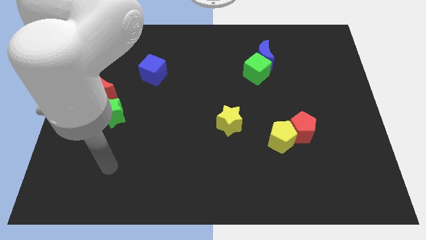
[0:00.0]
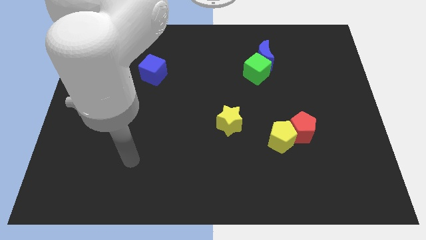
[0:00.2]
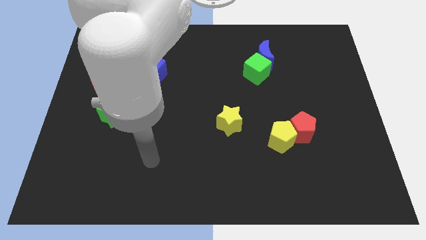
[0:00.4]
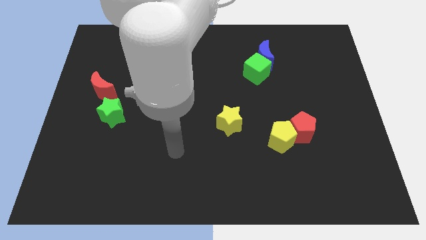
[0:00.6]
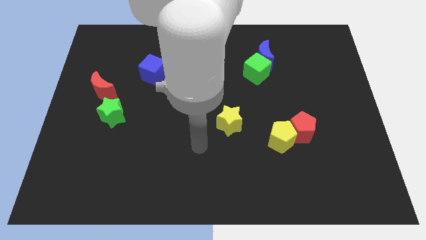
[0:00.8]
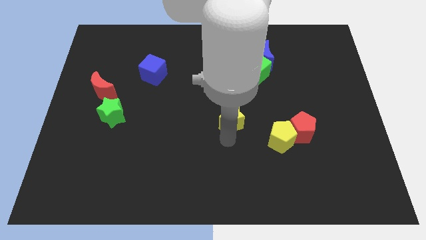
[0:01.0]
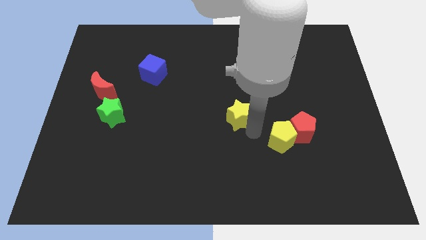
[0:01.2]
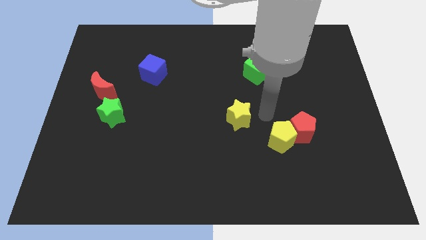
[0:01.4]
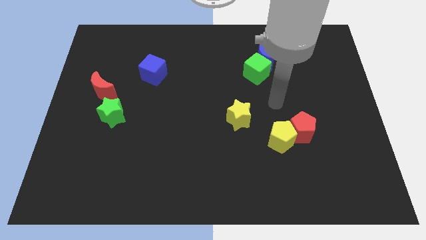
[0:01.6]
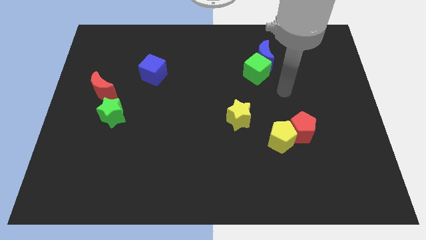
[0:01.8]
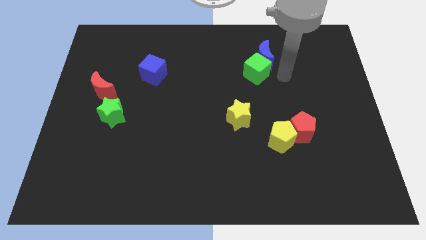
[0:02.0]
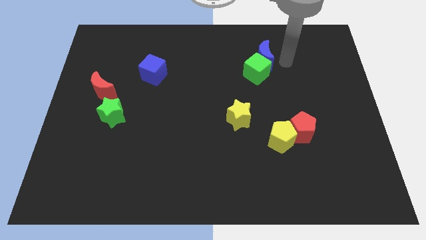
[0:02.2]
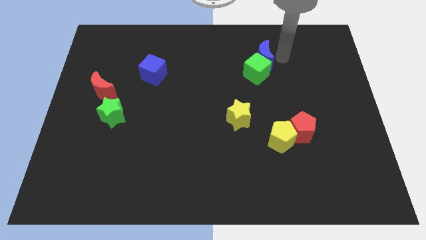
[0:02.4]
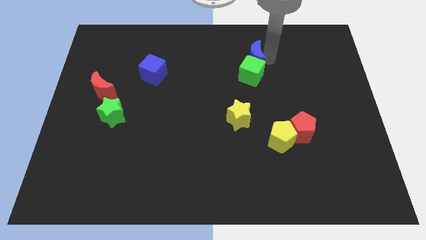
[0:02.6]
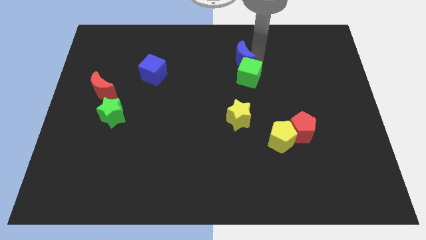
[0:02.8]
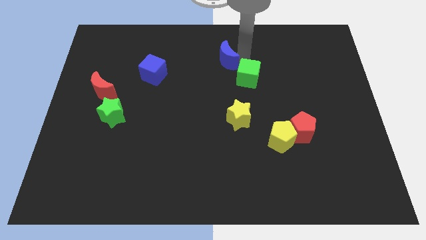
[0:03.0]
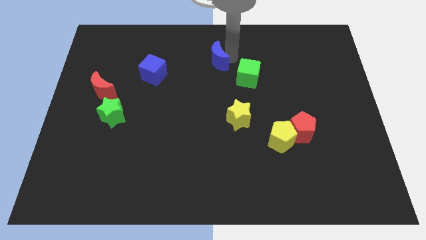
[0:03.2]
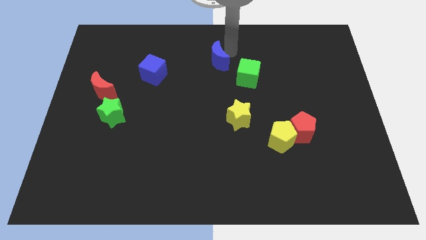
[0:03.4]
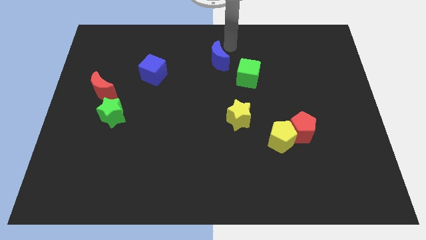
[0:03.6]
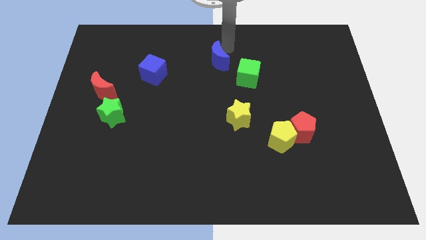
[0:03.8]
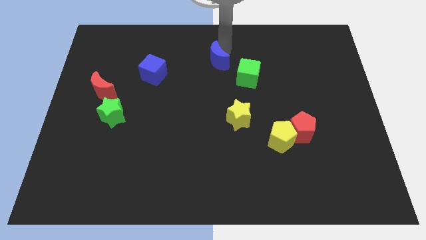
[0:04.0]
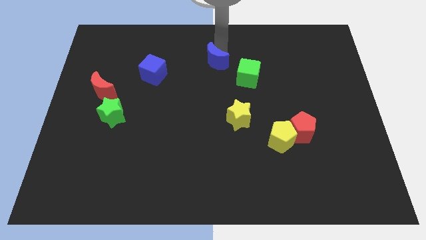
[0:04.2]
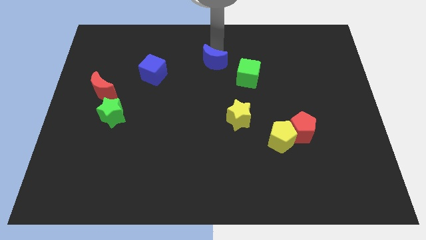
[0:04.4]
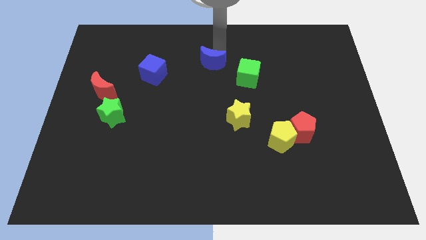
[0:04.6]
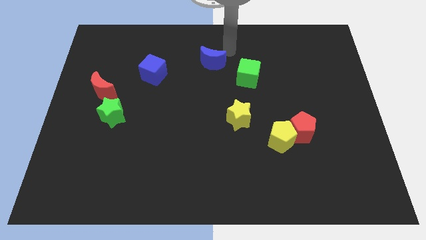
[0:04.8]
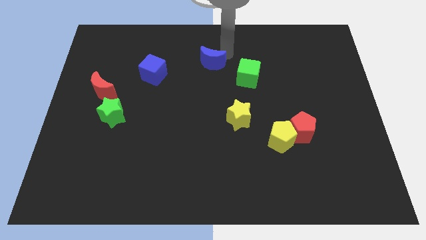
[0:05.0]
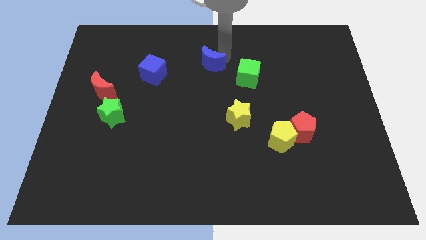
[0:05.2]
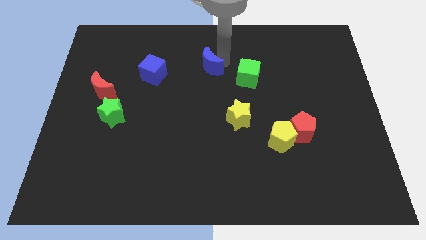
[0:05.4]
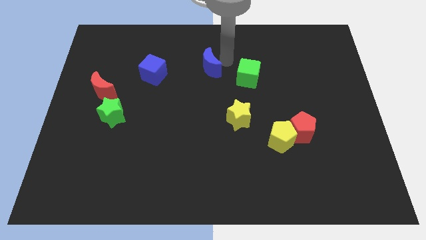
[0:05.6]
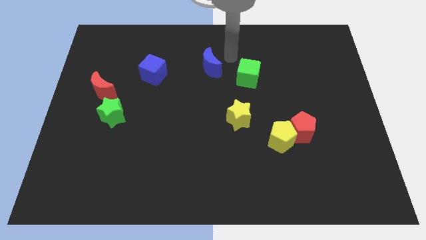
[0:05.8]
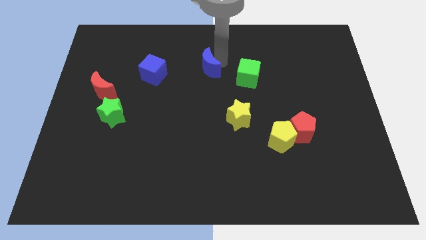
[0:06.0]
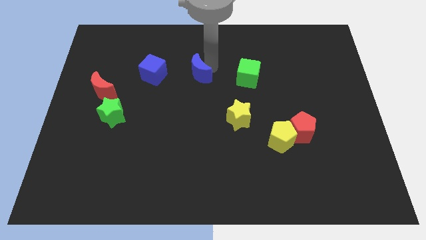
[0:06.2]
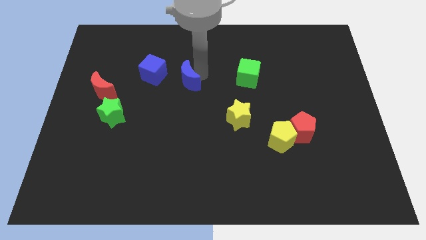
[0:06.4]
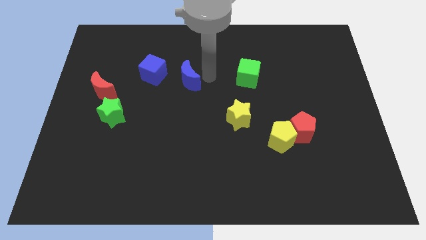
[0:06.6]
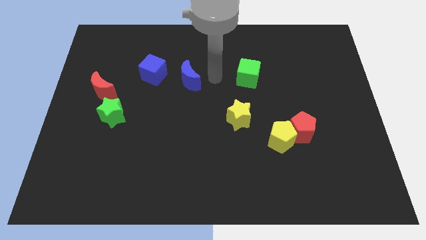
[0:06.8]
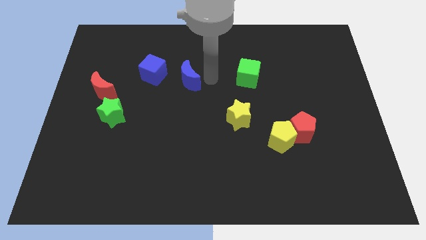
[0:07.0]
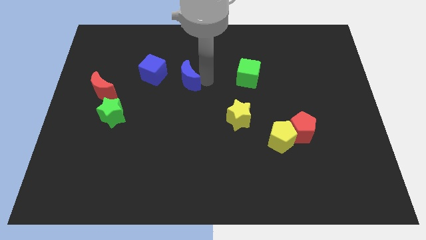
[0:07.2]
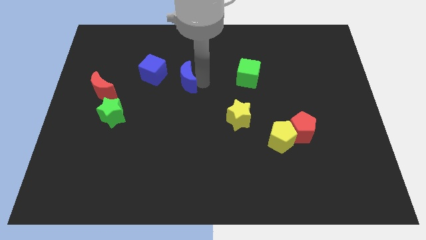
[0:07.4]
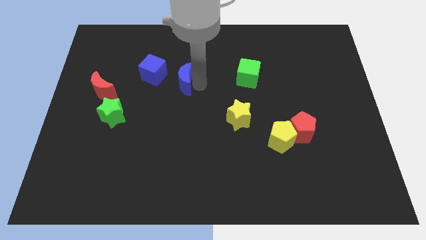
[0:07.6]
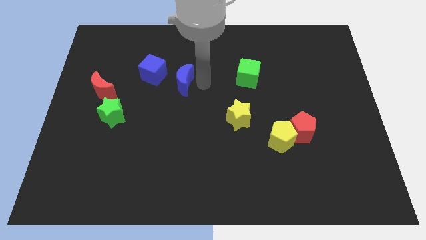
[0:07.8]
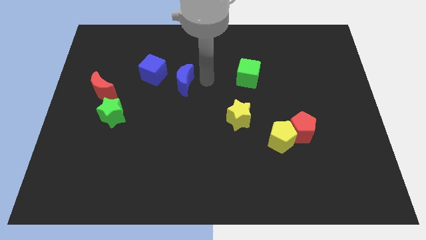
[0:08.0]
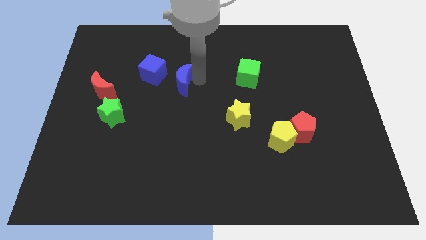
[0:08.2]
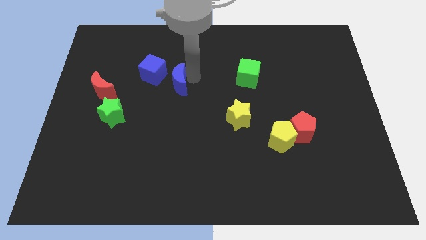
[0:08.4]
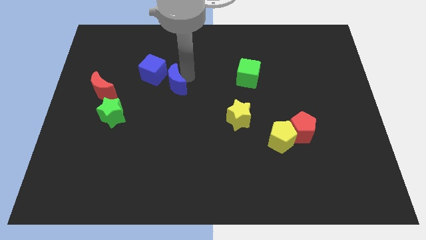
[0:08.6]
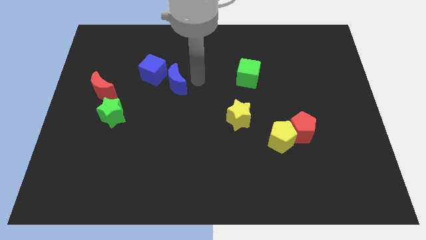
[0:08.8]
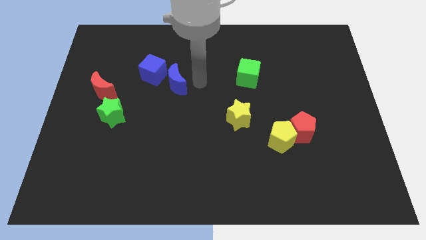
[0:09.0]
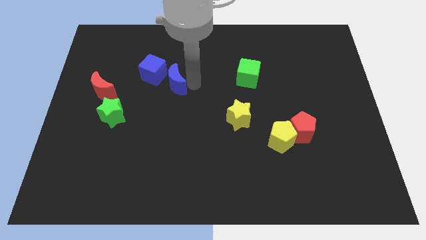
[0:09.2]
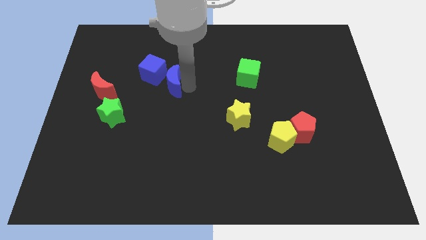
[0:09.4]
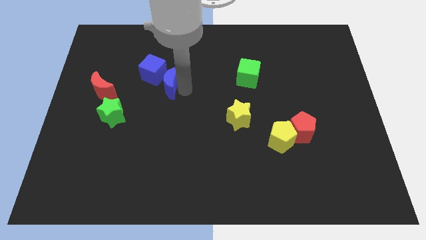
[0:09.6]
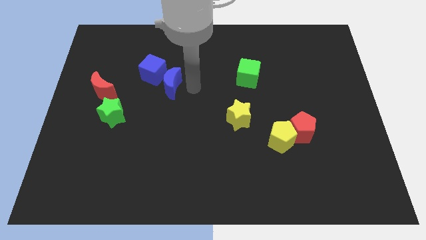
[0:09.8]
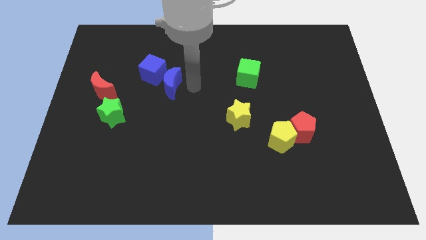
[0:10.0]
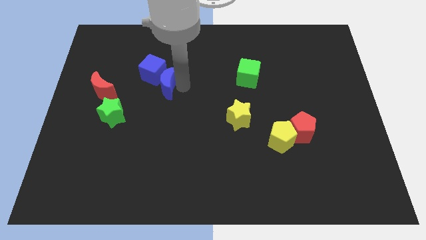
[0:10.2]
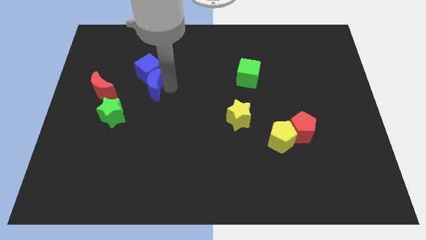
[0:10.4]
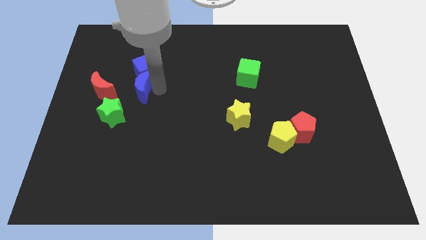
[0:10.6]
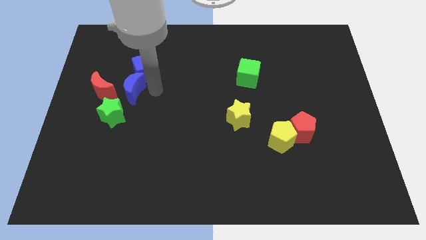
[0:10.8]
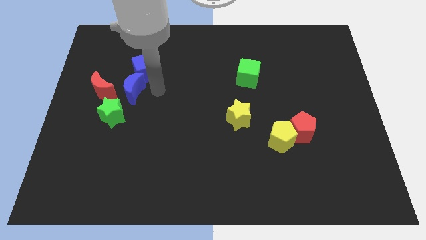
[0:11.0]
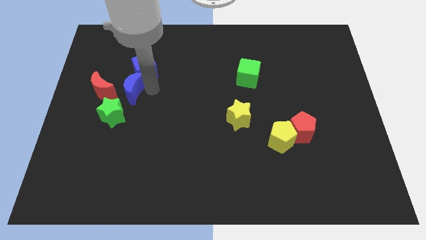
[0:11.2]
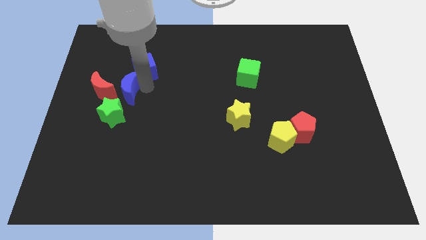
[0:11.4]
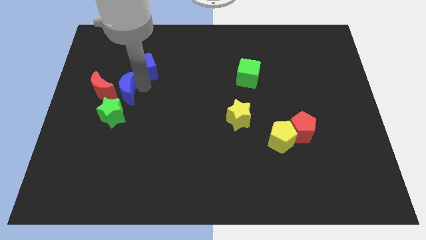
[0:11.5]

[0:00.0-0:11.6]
push the blue moon towards the red moon

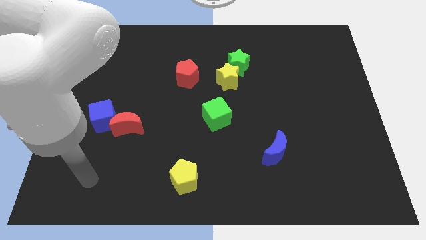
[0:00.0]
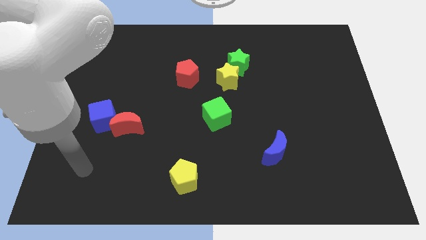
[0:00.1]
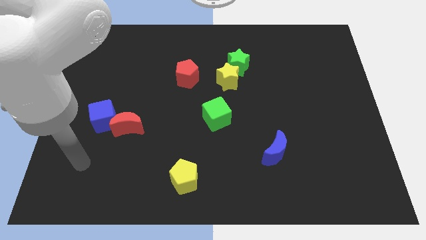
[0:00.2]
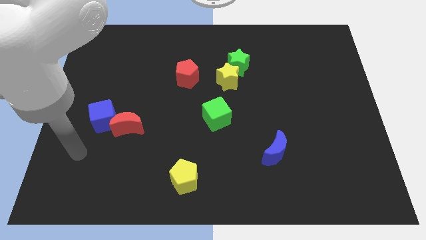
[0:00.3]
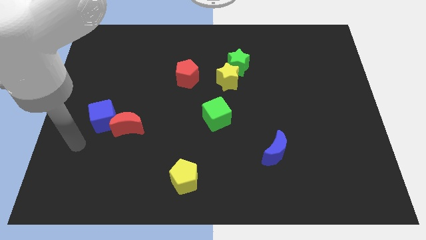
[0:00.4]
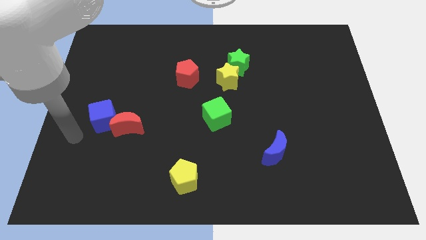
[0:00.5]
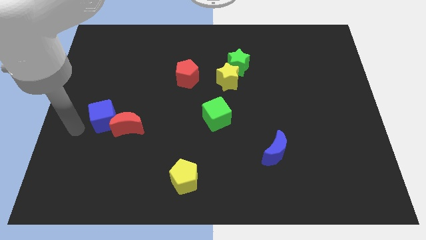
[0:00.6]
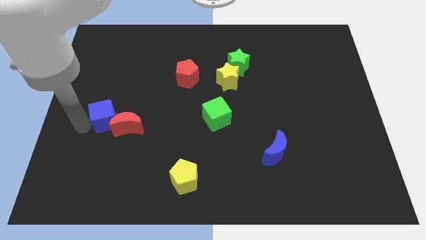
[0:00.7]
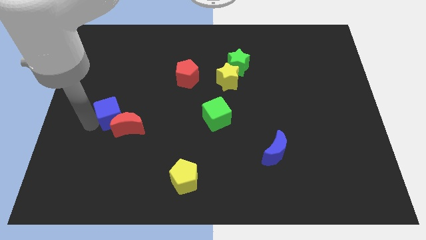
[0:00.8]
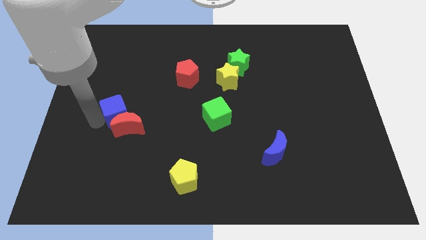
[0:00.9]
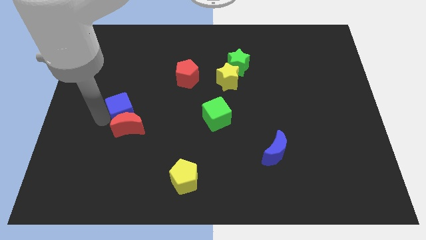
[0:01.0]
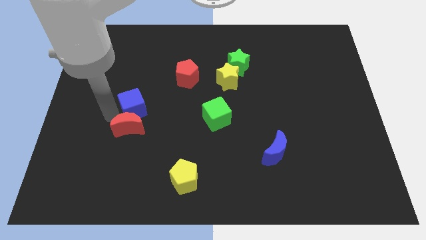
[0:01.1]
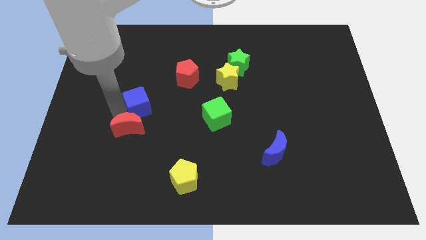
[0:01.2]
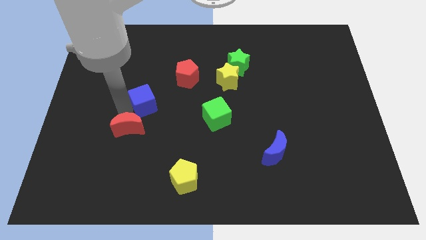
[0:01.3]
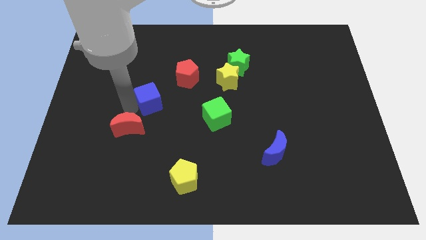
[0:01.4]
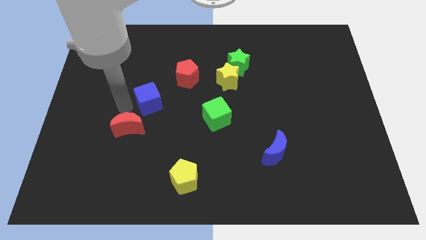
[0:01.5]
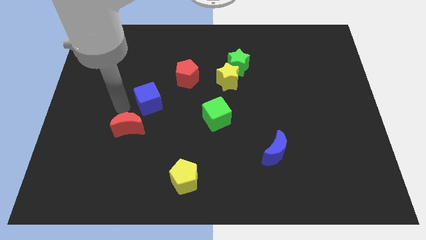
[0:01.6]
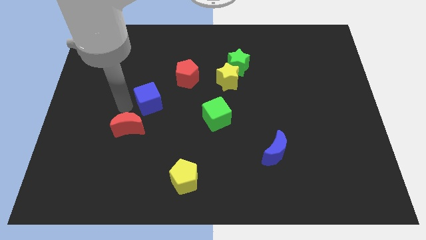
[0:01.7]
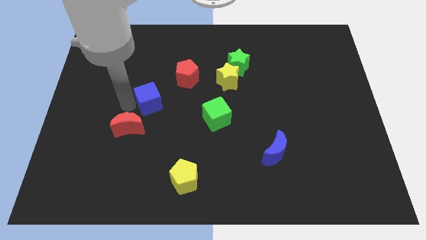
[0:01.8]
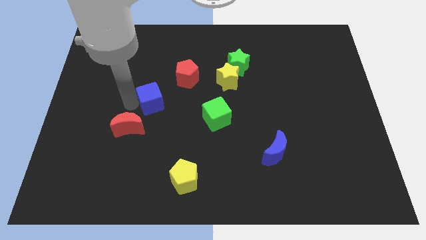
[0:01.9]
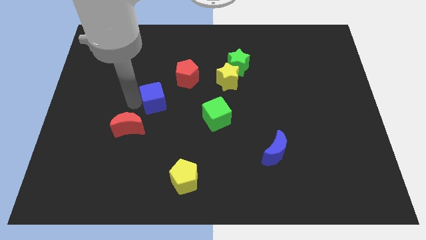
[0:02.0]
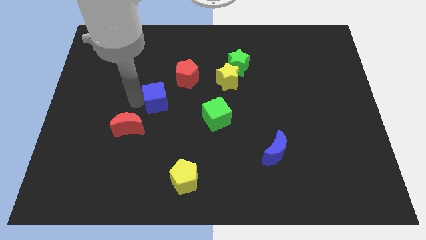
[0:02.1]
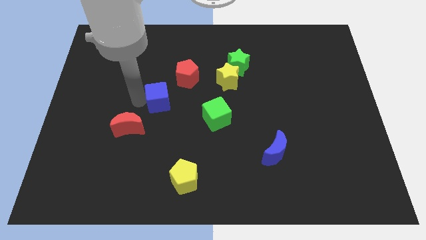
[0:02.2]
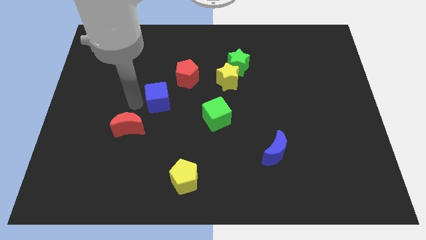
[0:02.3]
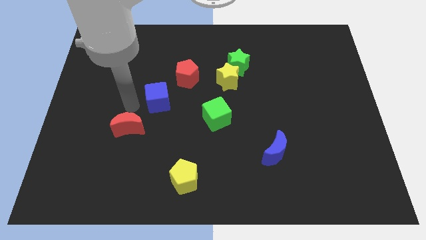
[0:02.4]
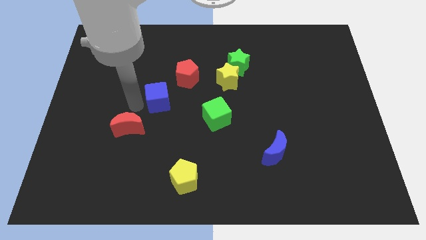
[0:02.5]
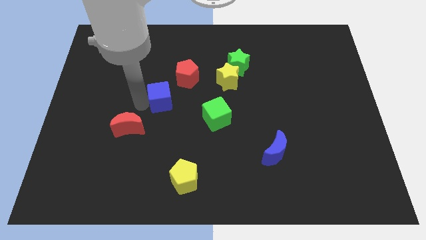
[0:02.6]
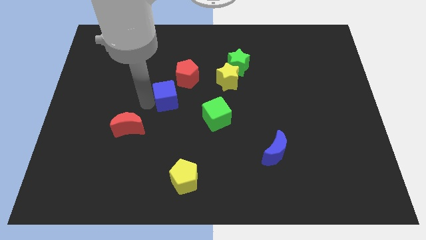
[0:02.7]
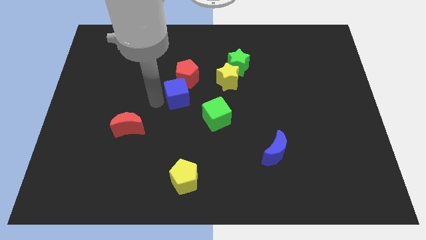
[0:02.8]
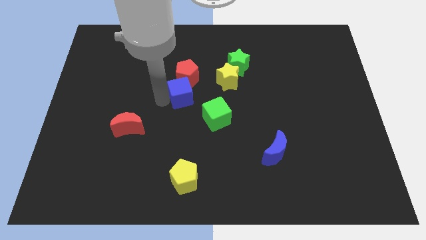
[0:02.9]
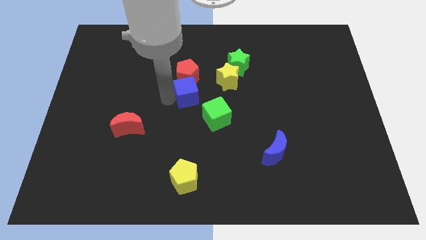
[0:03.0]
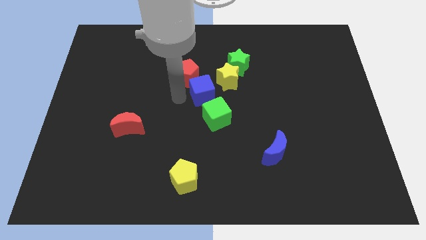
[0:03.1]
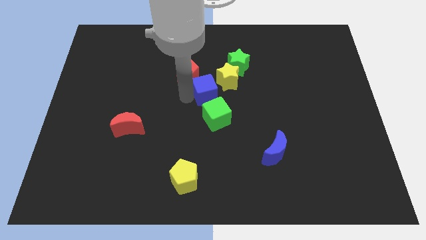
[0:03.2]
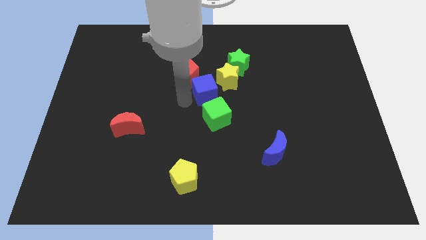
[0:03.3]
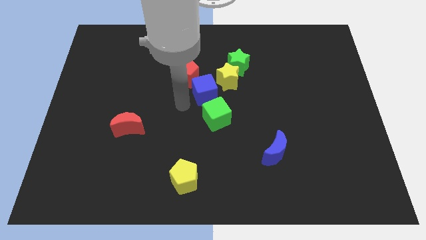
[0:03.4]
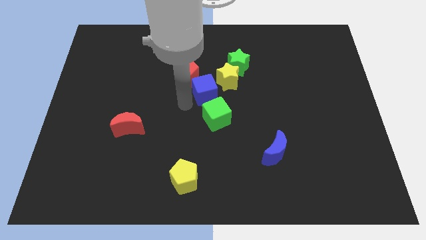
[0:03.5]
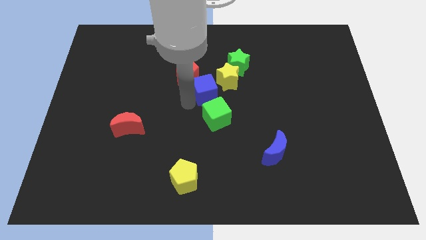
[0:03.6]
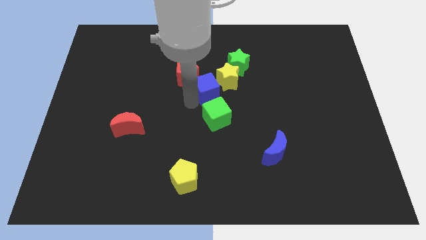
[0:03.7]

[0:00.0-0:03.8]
push the blue cube to the yellow star
